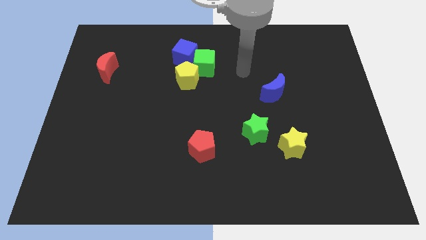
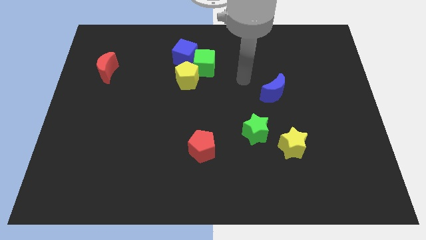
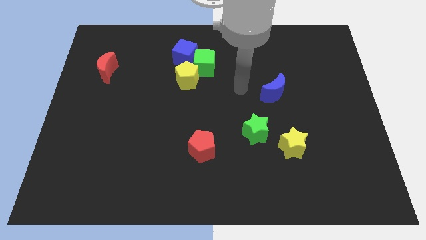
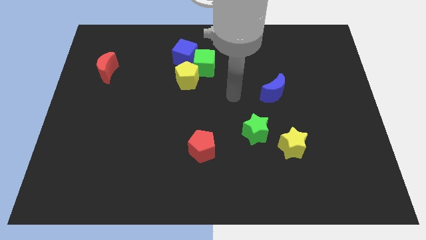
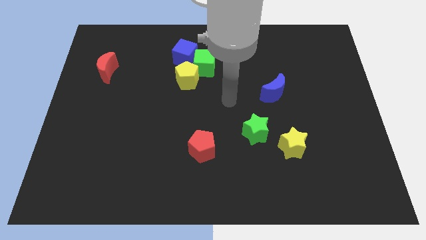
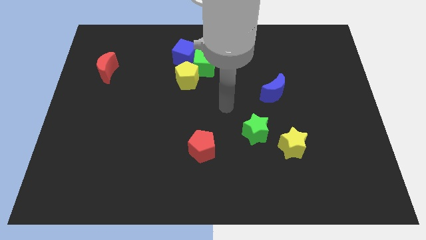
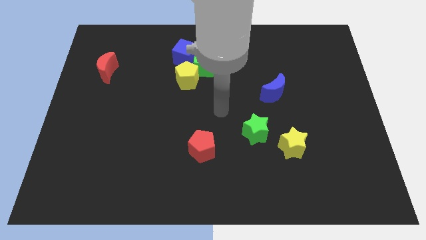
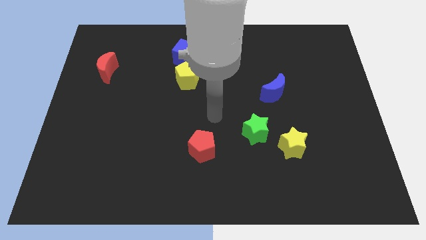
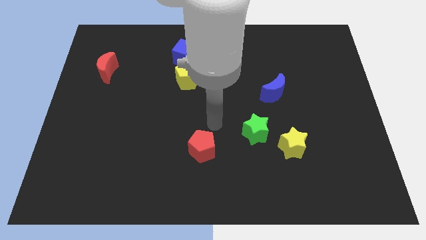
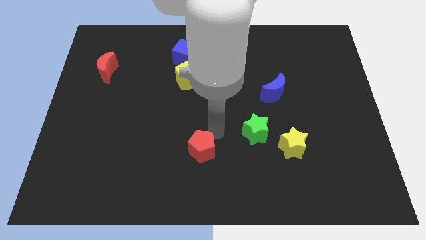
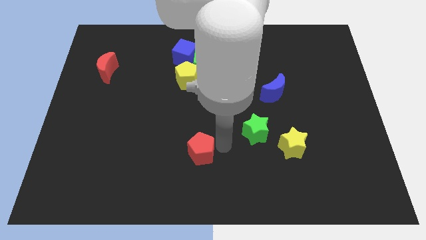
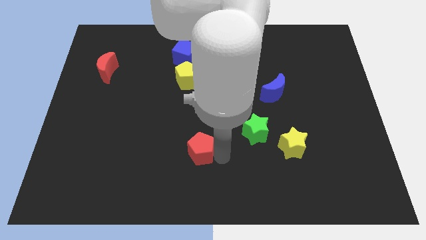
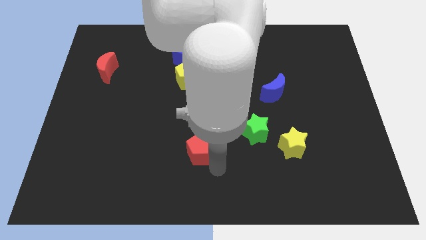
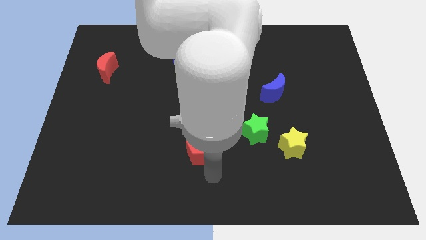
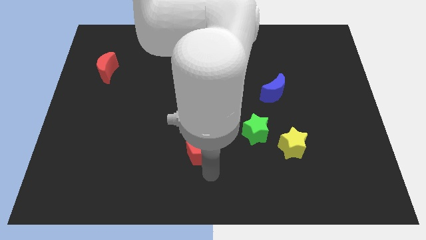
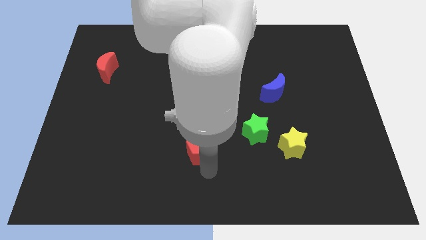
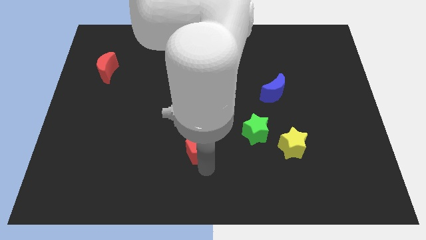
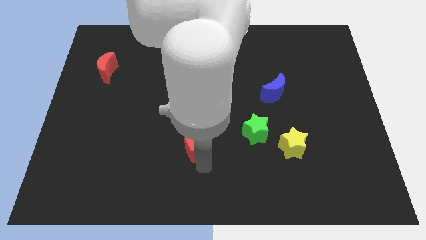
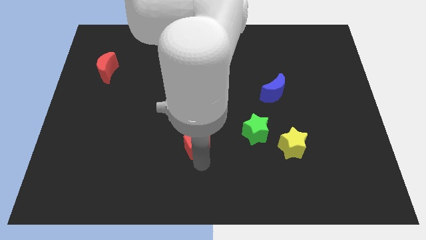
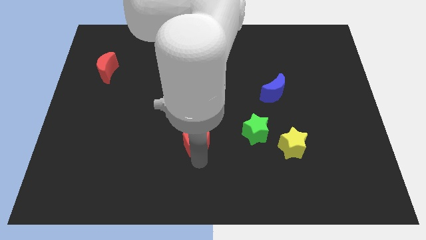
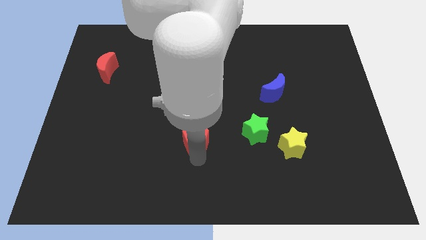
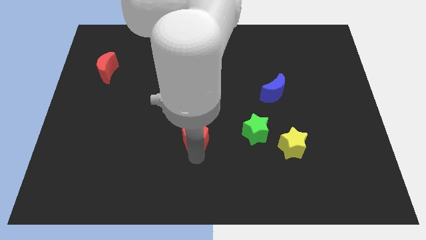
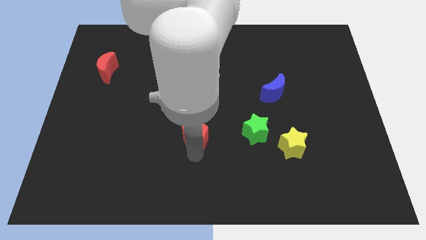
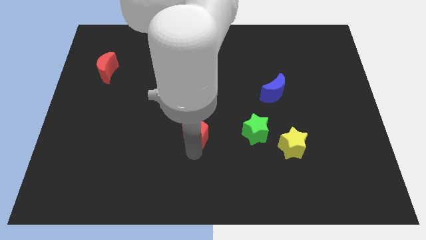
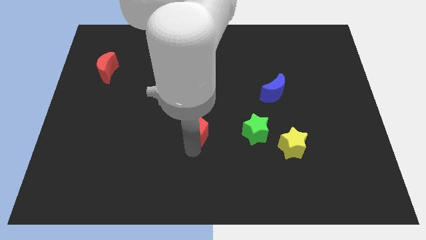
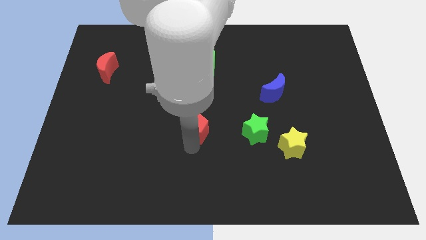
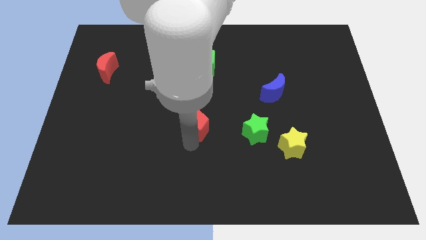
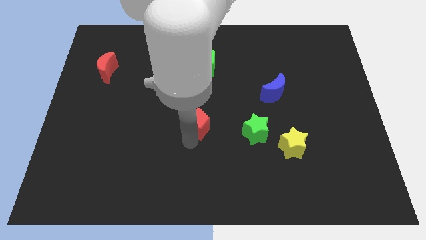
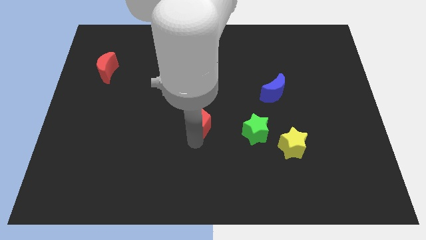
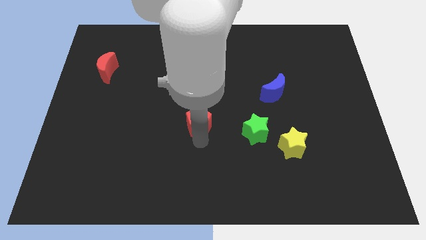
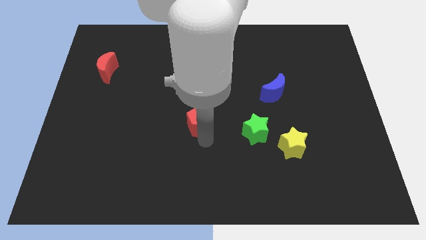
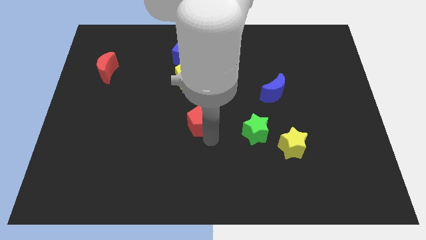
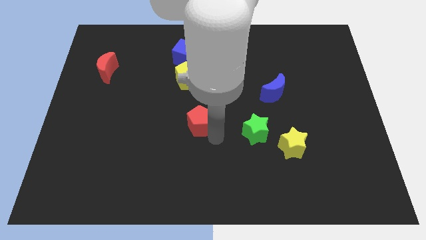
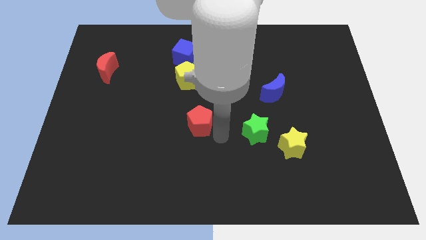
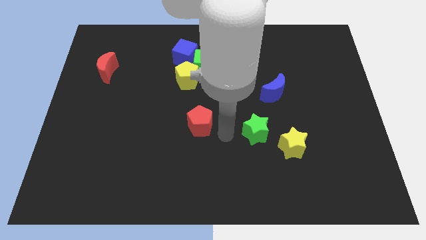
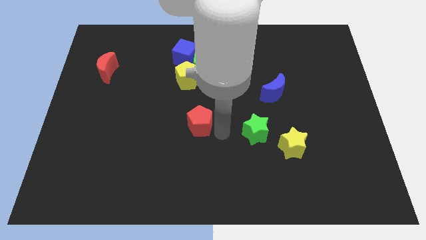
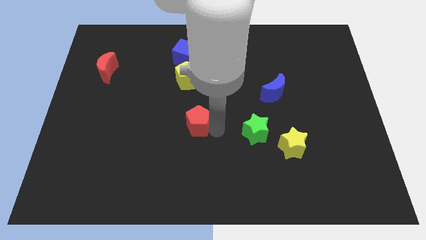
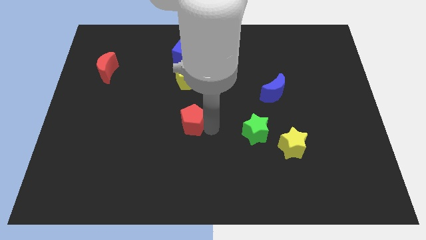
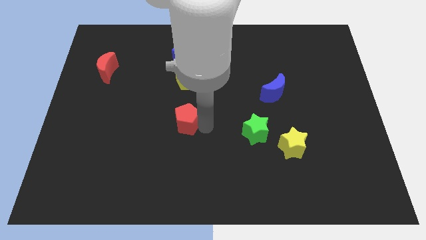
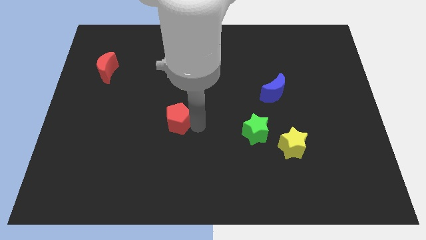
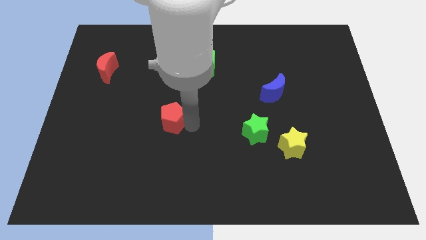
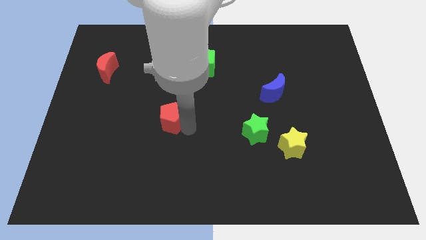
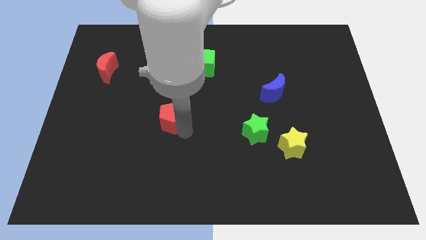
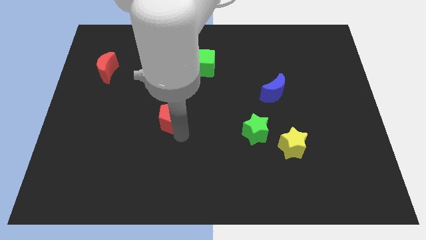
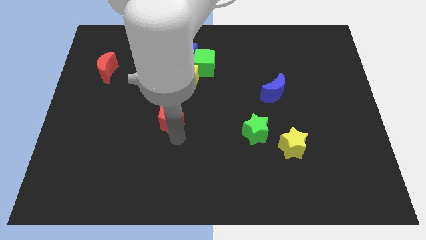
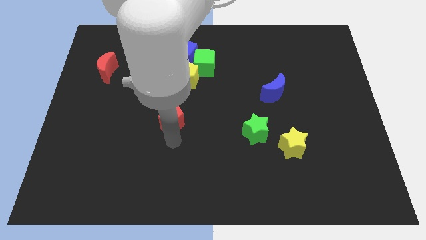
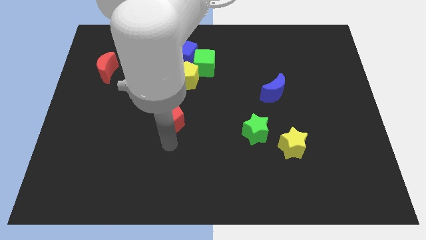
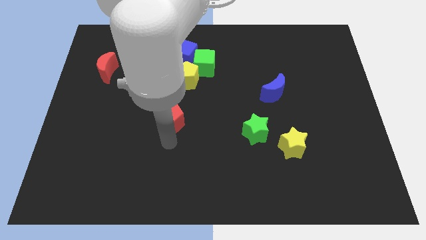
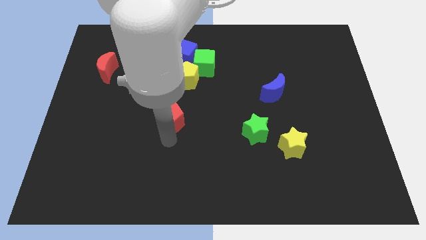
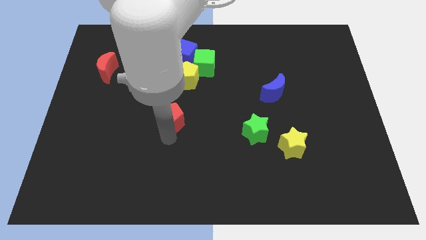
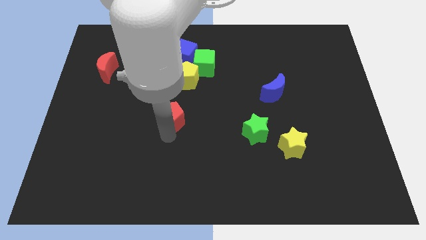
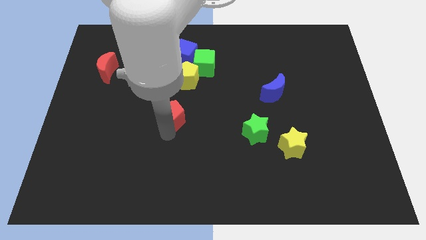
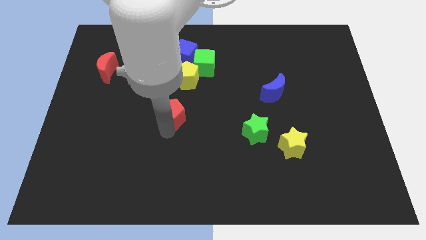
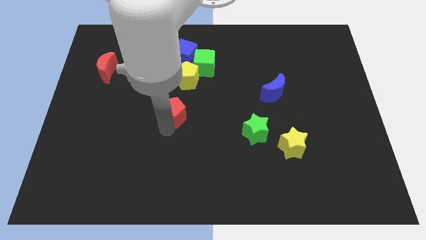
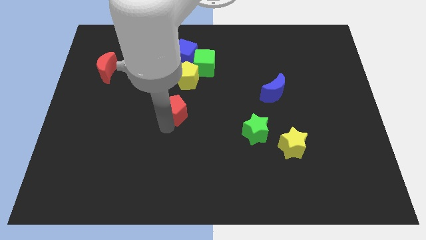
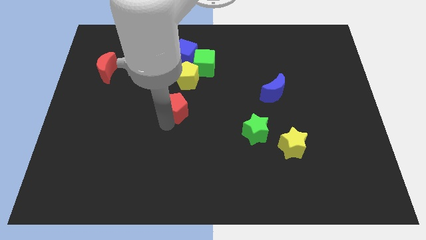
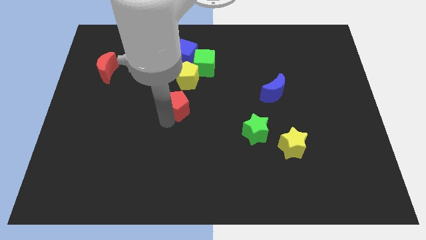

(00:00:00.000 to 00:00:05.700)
move the red pentagon to the bottom left of the yellow pentagon

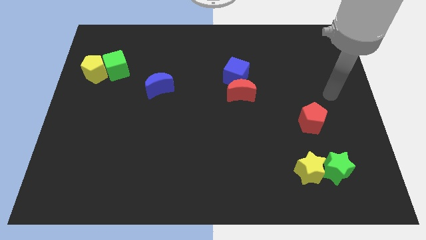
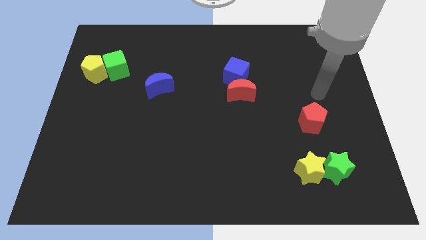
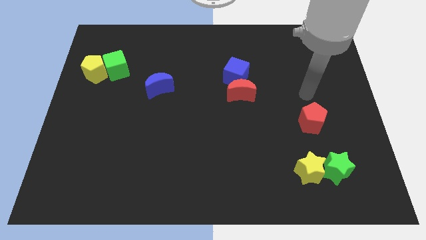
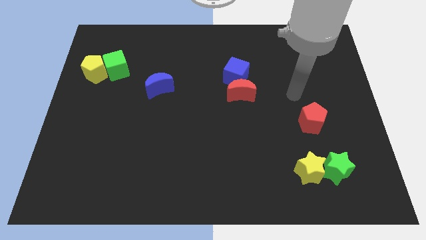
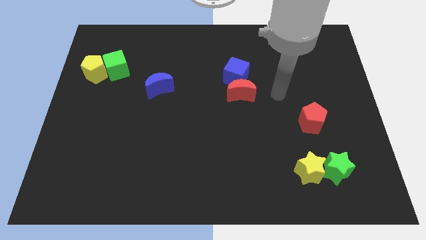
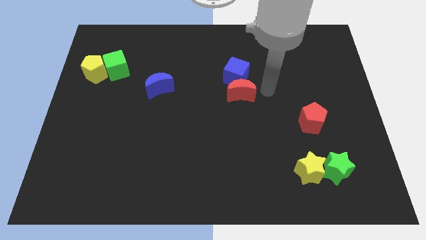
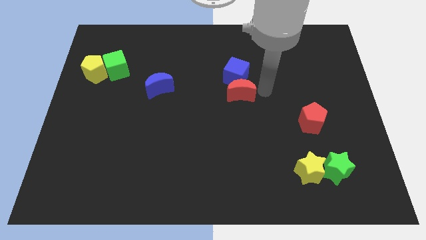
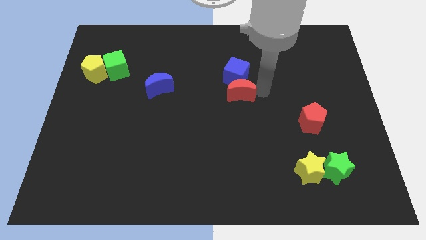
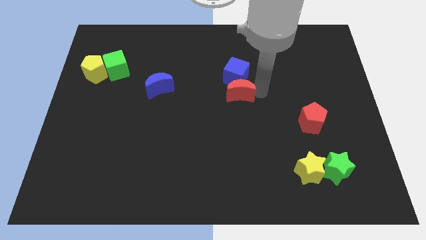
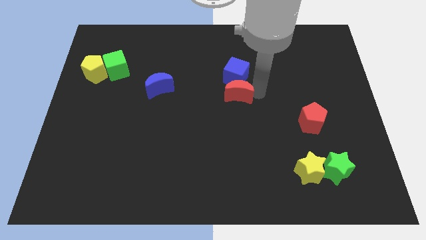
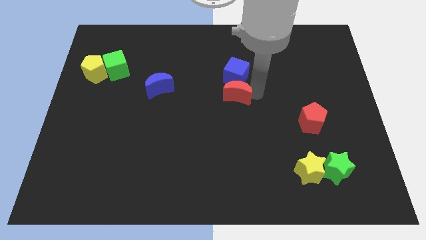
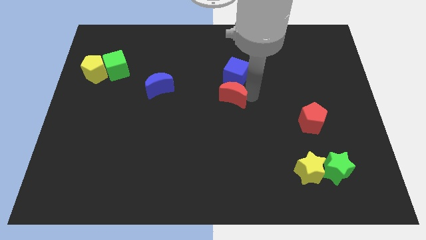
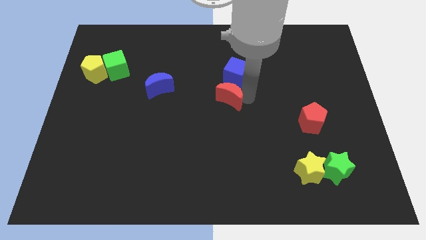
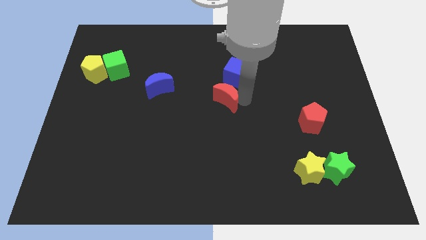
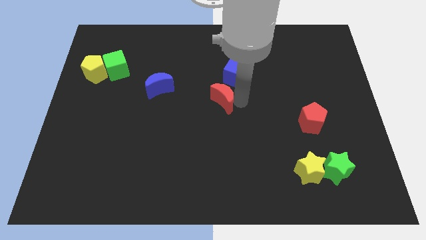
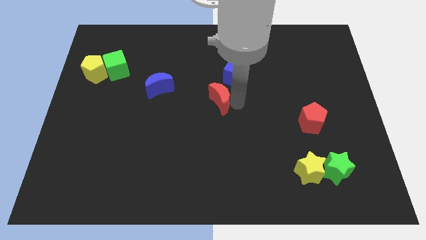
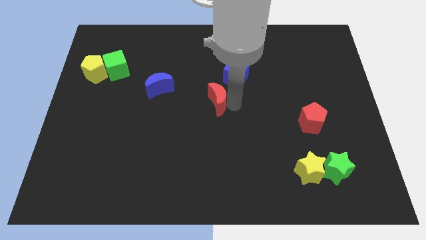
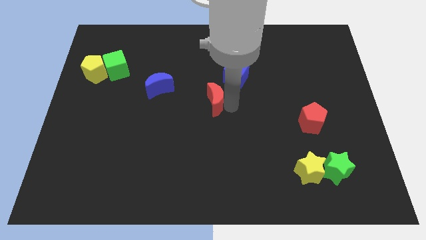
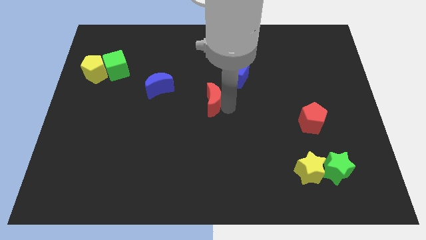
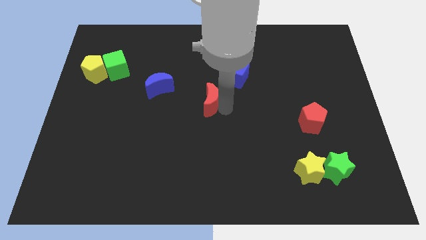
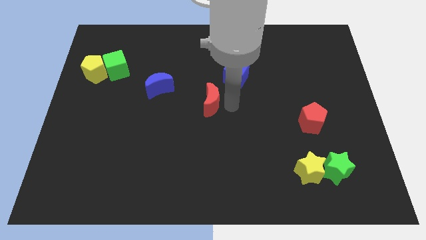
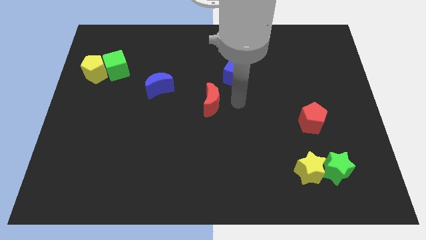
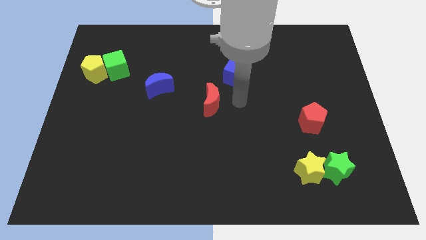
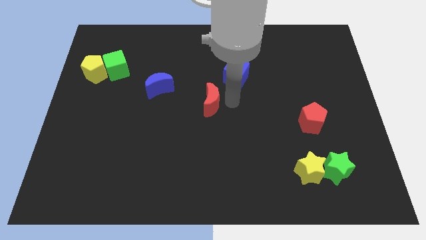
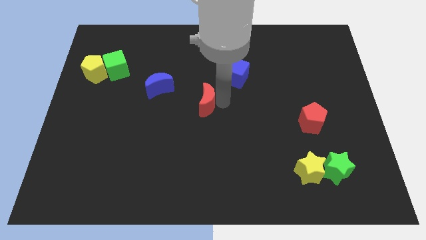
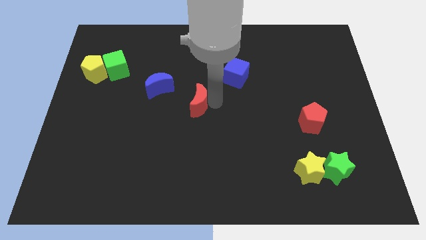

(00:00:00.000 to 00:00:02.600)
move the red moon diagonally down and to the right of the blue moon
